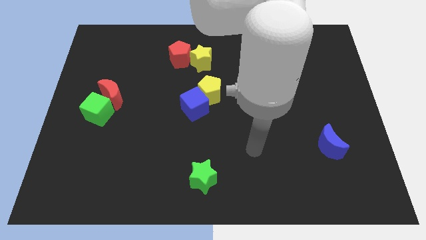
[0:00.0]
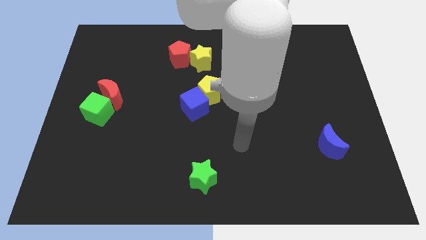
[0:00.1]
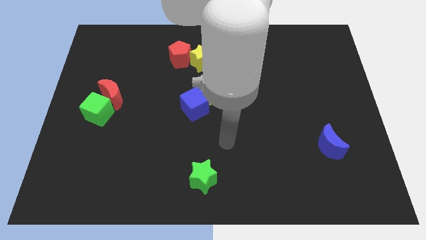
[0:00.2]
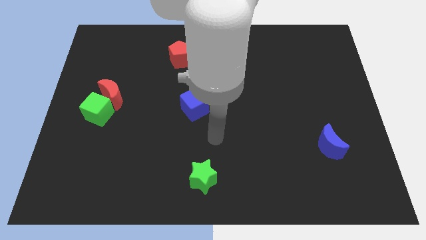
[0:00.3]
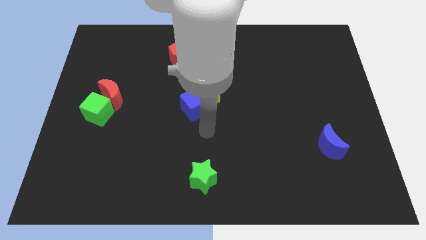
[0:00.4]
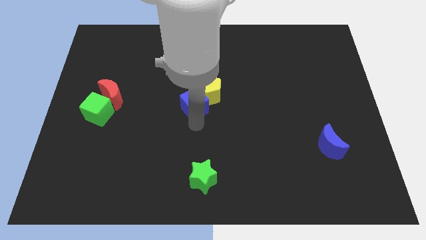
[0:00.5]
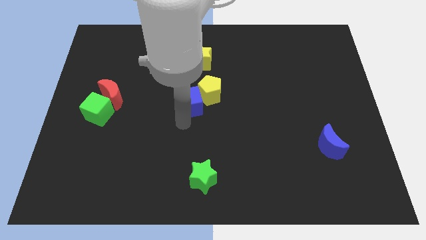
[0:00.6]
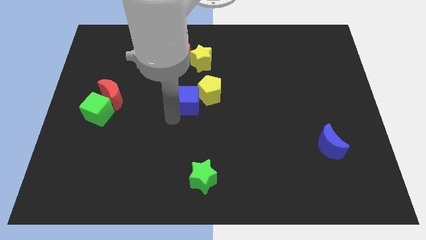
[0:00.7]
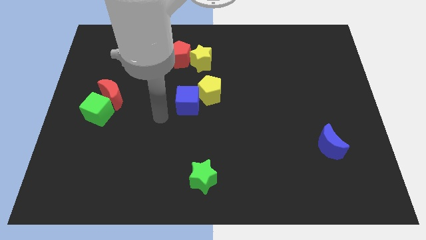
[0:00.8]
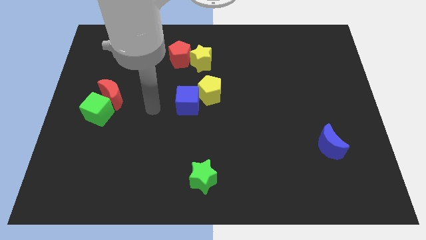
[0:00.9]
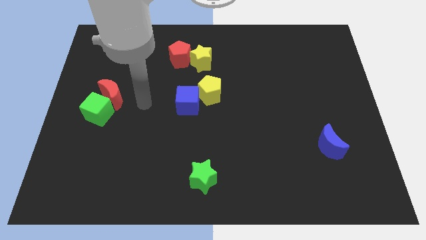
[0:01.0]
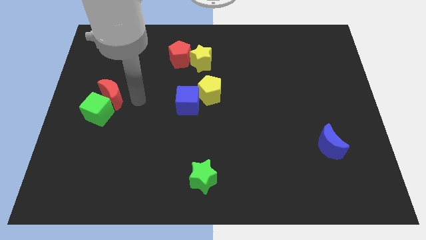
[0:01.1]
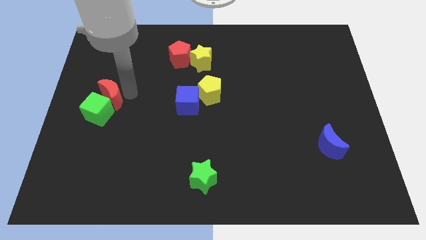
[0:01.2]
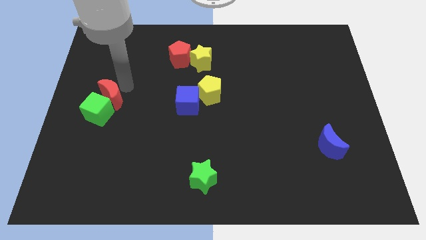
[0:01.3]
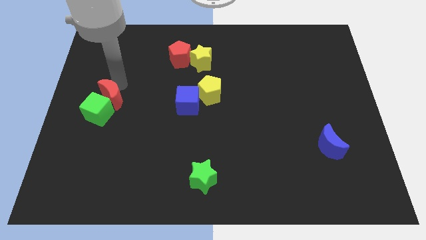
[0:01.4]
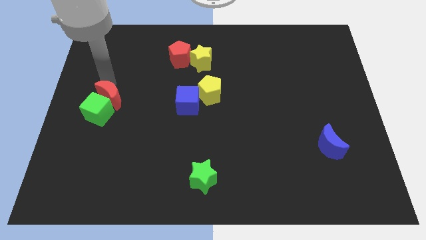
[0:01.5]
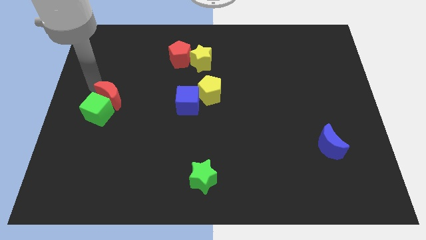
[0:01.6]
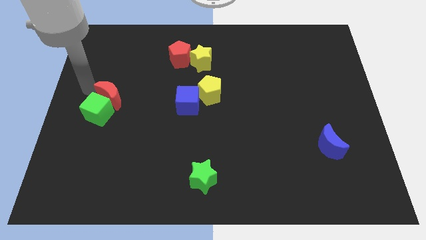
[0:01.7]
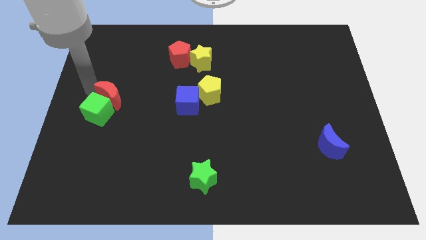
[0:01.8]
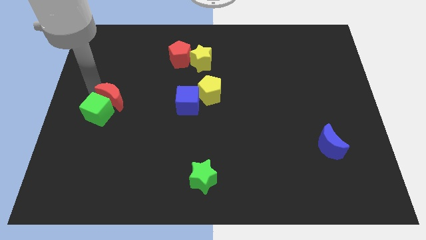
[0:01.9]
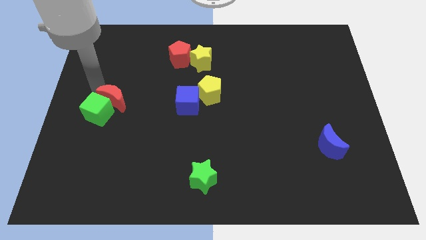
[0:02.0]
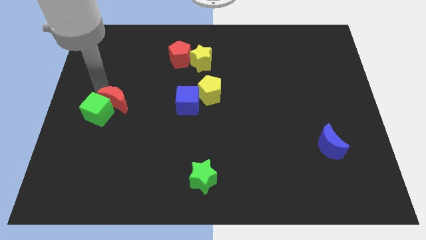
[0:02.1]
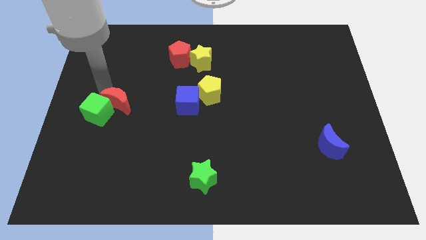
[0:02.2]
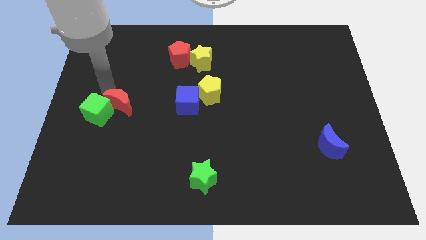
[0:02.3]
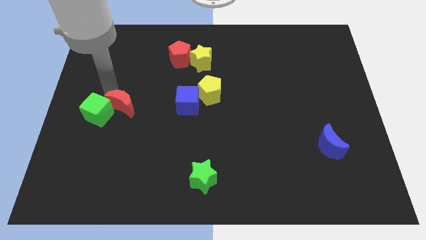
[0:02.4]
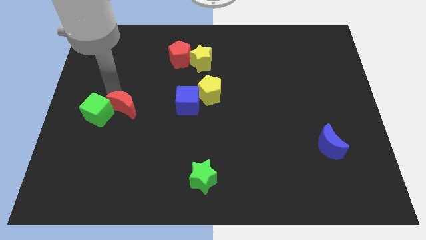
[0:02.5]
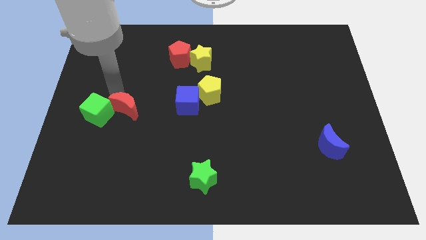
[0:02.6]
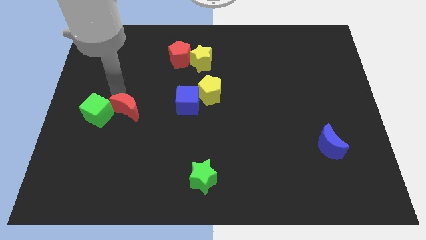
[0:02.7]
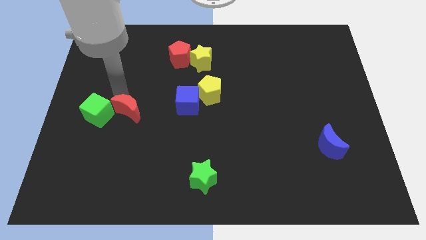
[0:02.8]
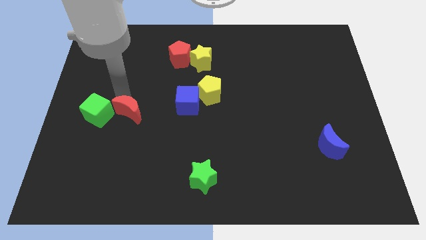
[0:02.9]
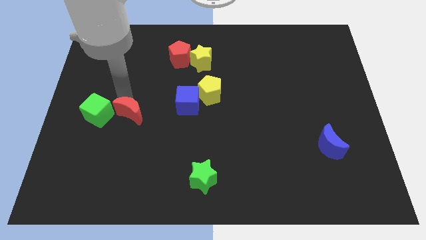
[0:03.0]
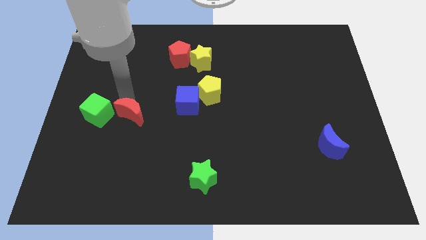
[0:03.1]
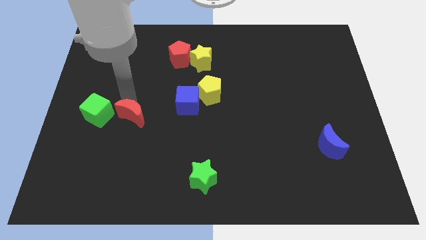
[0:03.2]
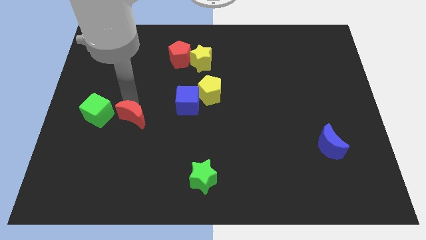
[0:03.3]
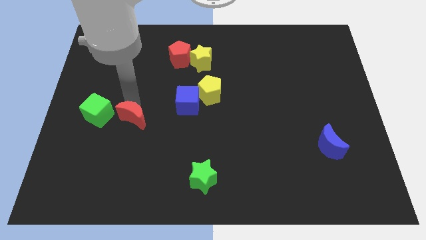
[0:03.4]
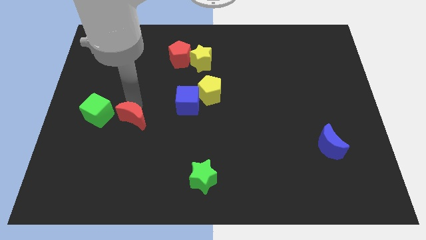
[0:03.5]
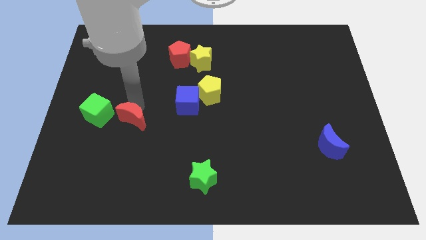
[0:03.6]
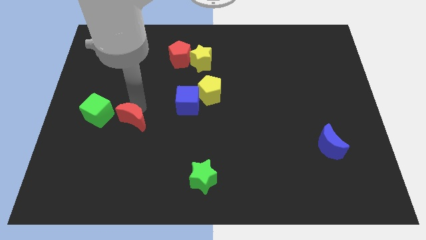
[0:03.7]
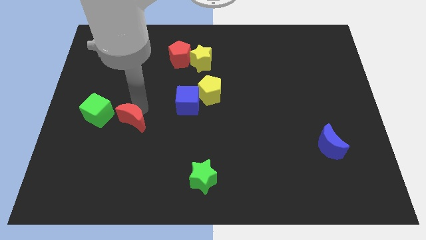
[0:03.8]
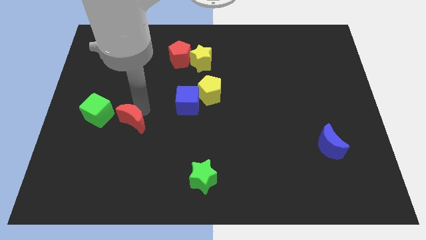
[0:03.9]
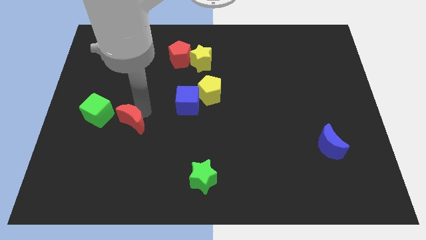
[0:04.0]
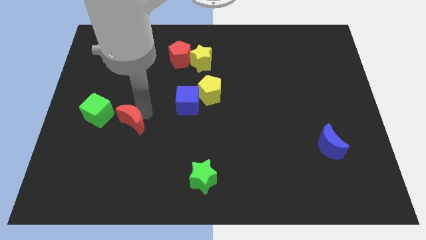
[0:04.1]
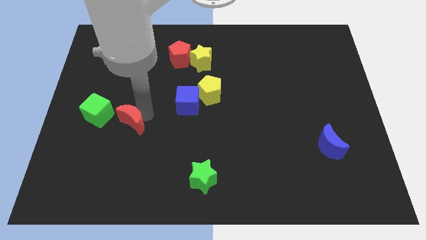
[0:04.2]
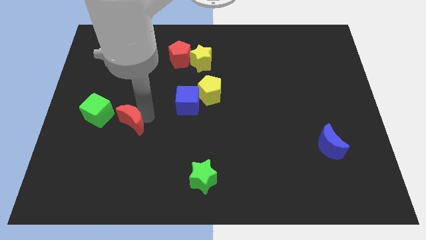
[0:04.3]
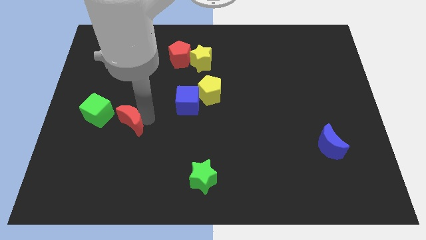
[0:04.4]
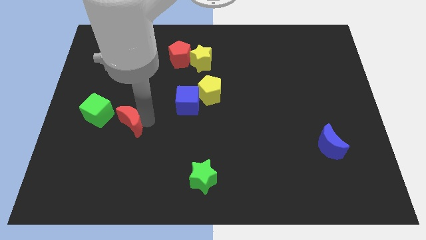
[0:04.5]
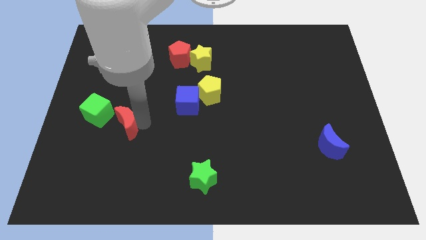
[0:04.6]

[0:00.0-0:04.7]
move the red moon a bit downwards

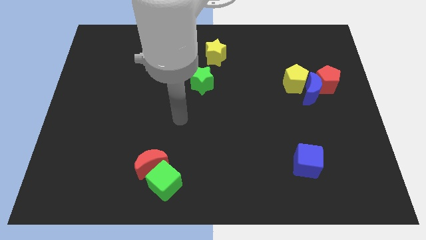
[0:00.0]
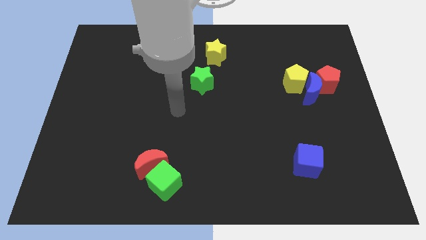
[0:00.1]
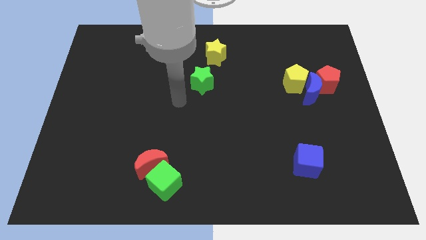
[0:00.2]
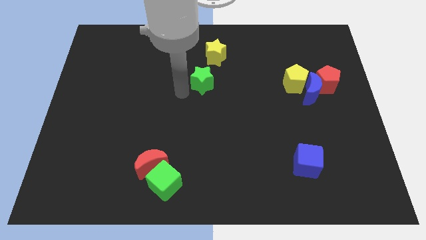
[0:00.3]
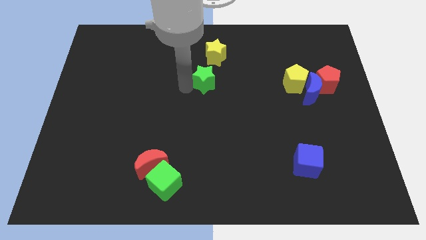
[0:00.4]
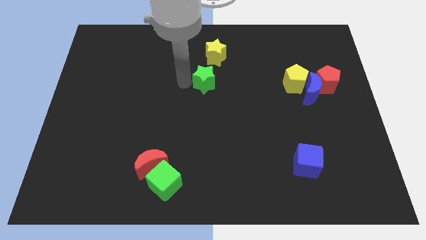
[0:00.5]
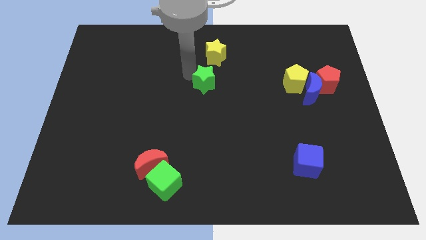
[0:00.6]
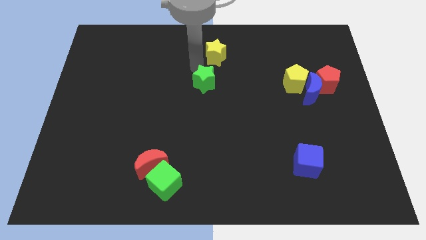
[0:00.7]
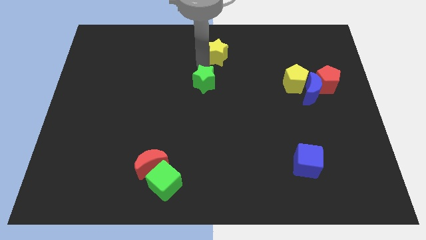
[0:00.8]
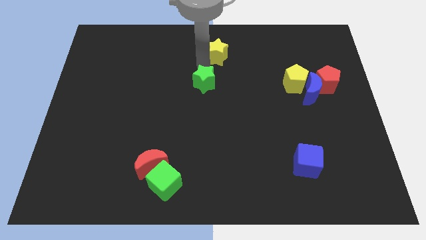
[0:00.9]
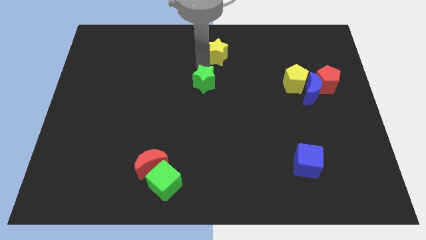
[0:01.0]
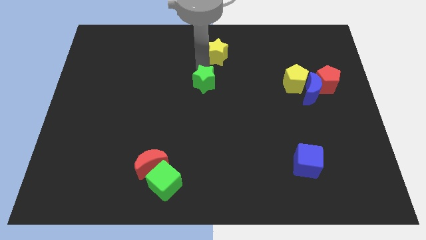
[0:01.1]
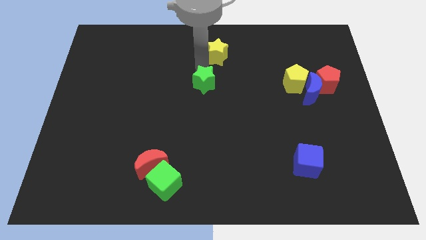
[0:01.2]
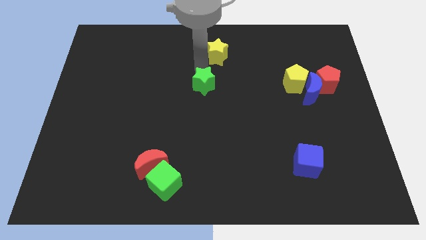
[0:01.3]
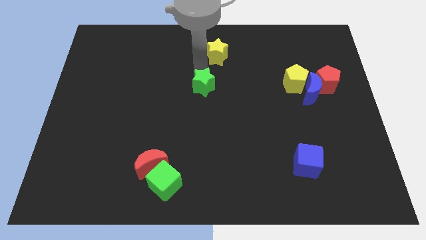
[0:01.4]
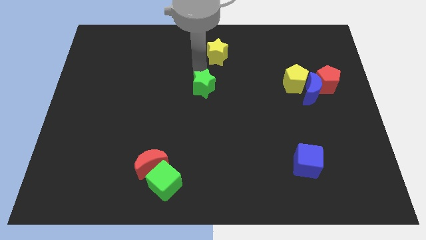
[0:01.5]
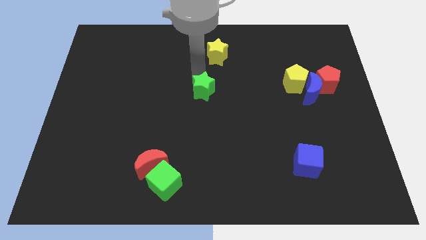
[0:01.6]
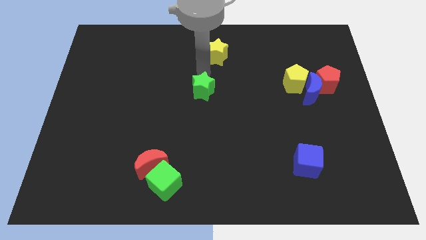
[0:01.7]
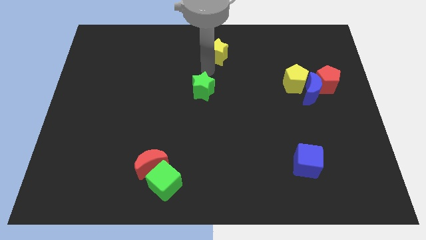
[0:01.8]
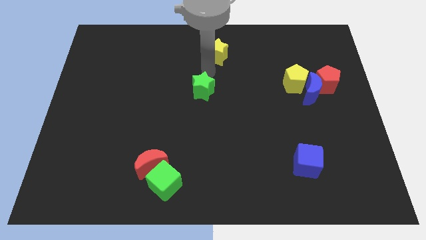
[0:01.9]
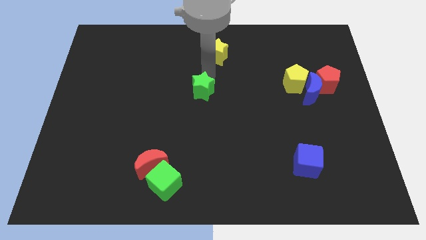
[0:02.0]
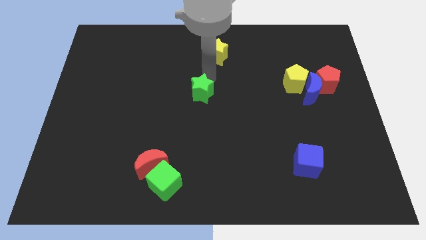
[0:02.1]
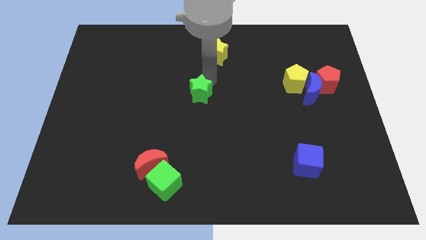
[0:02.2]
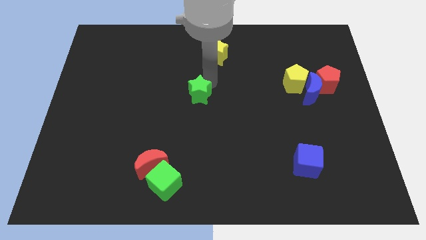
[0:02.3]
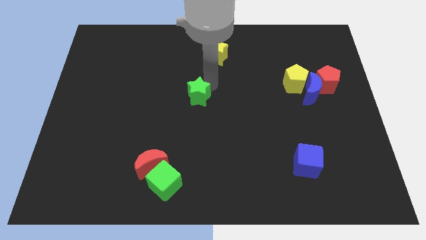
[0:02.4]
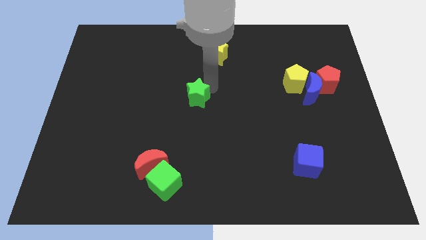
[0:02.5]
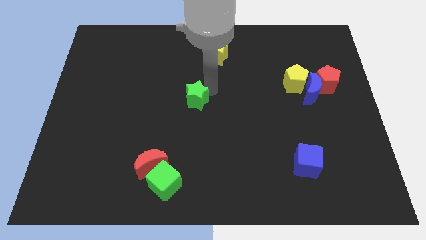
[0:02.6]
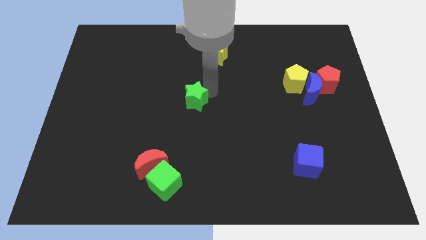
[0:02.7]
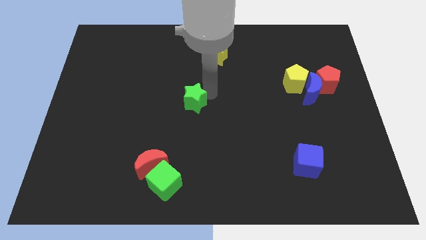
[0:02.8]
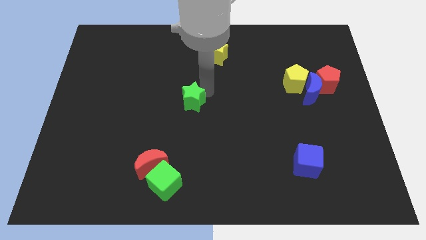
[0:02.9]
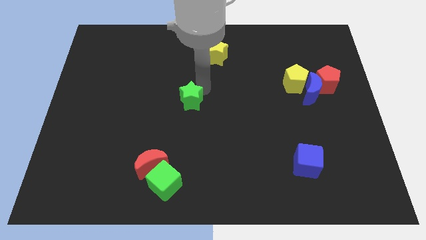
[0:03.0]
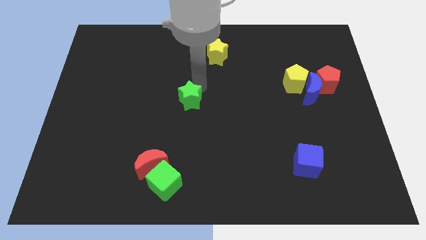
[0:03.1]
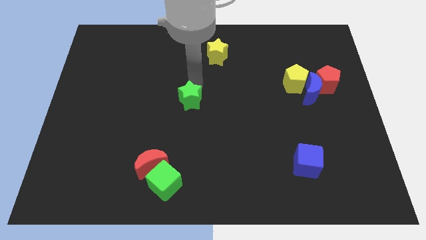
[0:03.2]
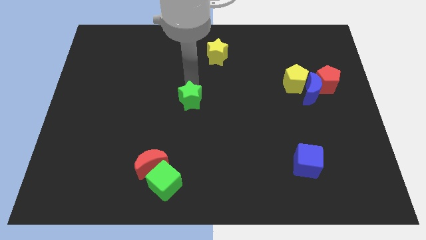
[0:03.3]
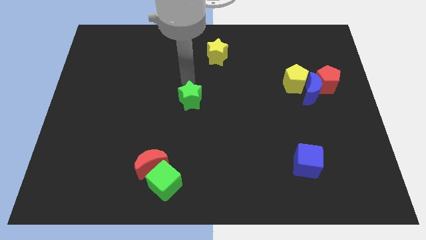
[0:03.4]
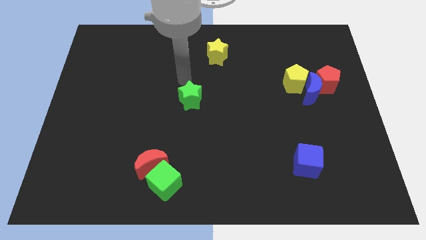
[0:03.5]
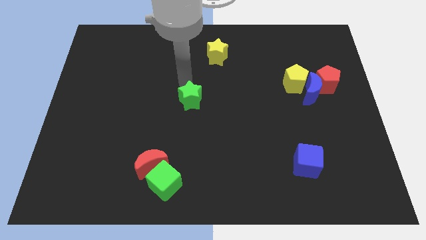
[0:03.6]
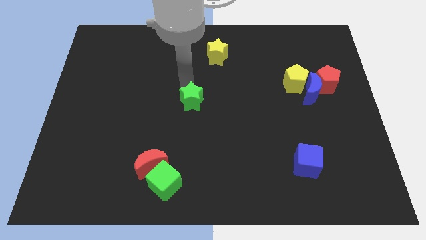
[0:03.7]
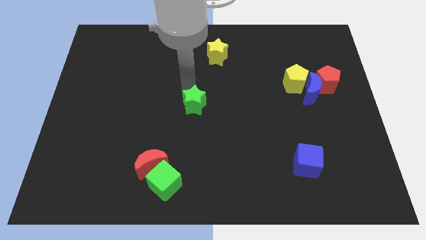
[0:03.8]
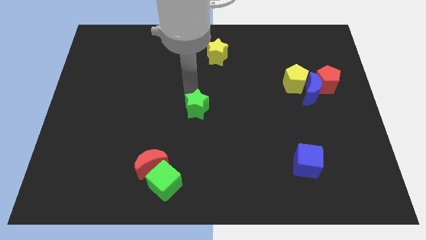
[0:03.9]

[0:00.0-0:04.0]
push the green star downwards slightly
